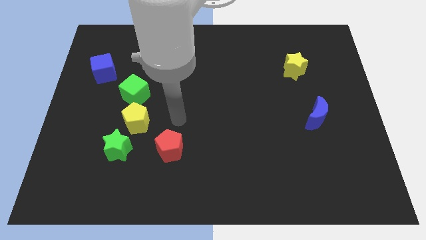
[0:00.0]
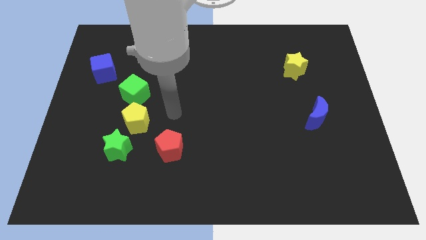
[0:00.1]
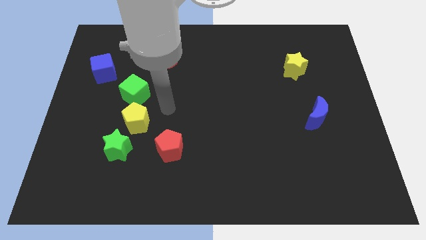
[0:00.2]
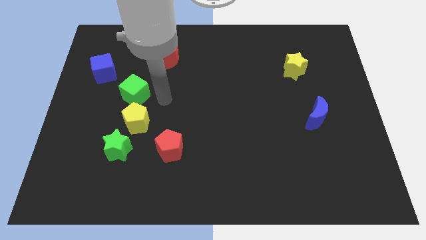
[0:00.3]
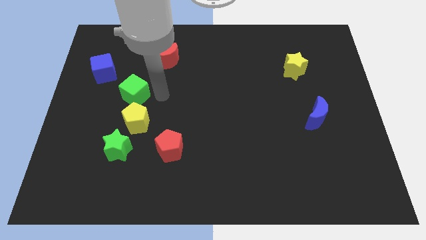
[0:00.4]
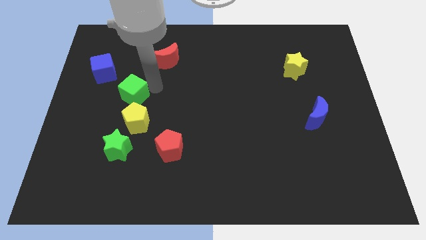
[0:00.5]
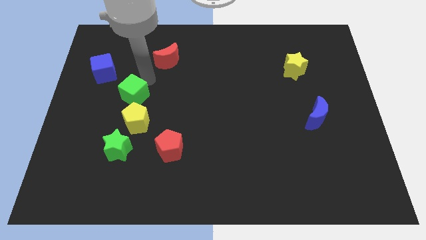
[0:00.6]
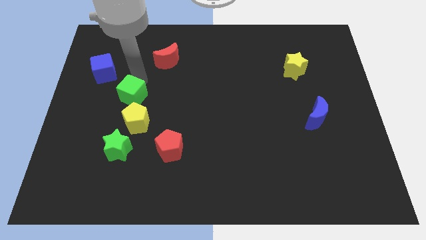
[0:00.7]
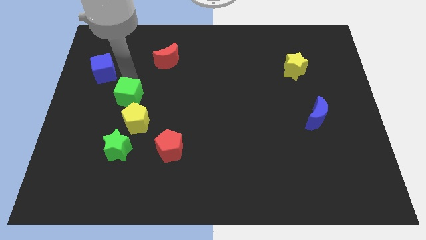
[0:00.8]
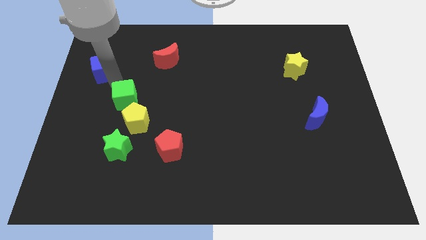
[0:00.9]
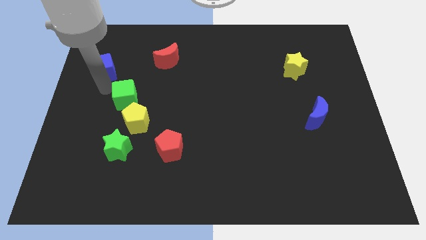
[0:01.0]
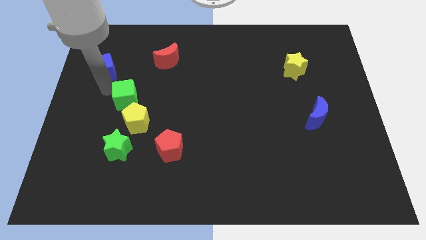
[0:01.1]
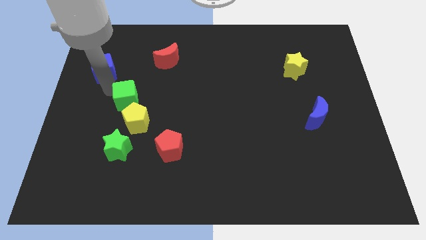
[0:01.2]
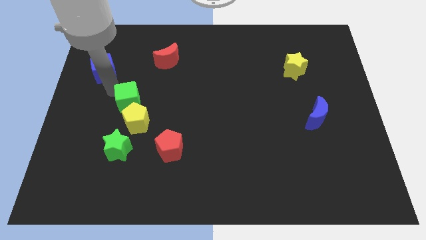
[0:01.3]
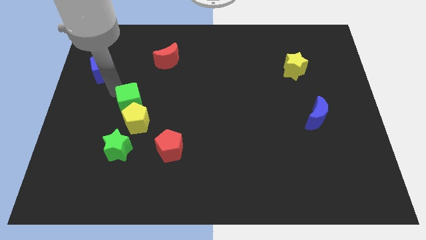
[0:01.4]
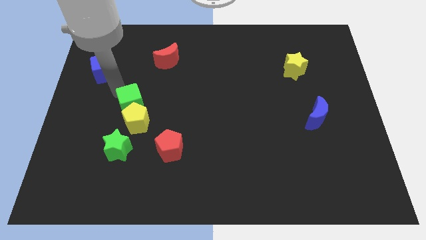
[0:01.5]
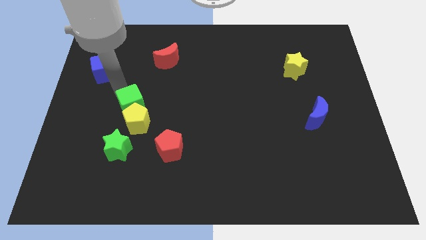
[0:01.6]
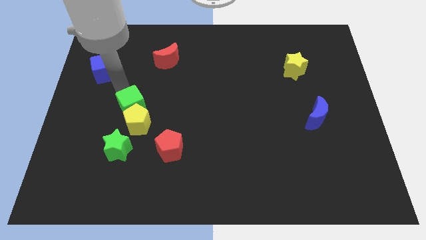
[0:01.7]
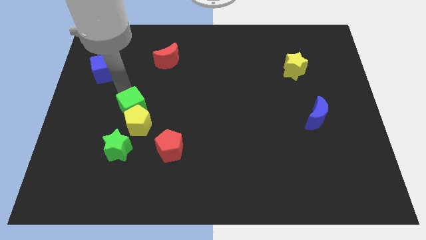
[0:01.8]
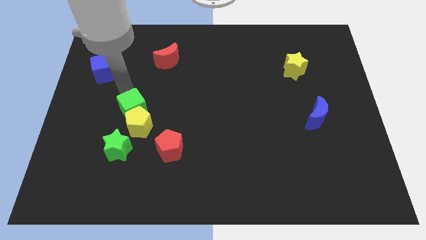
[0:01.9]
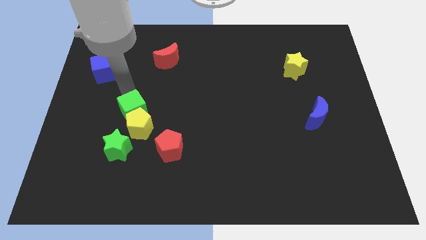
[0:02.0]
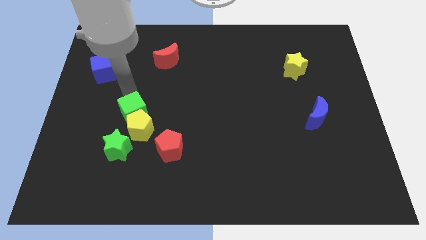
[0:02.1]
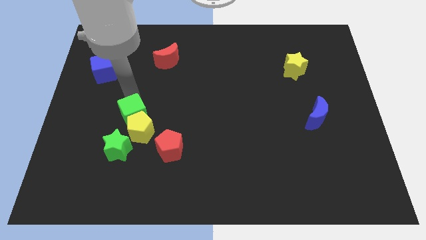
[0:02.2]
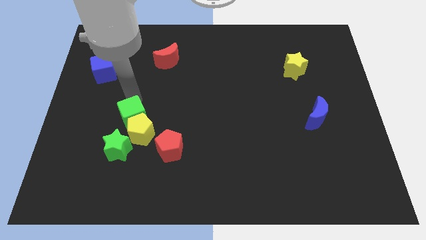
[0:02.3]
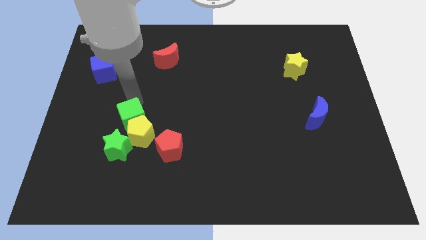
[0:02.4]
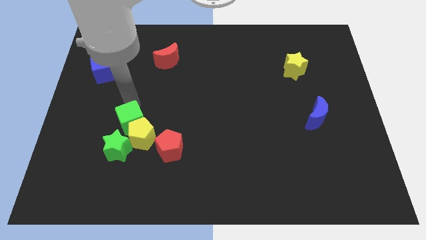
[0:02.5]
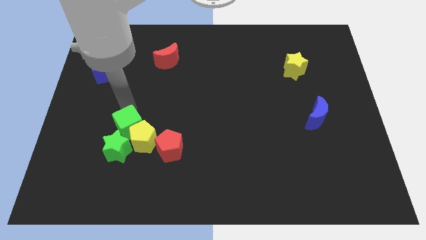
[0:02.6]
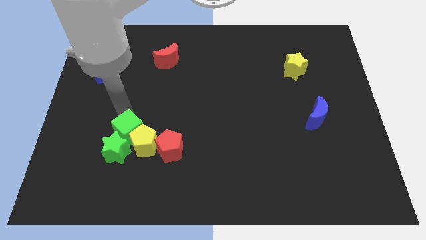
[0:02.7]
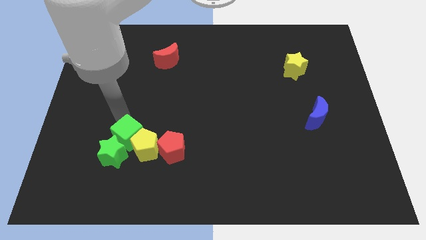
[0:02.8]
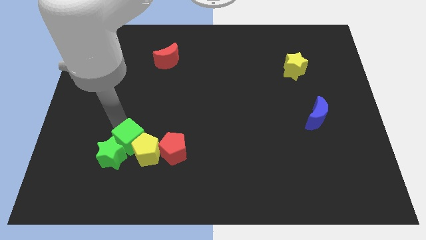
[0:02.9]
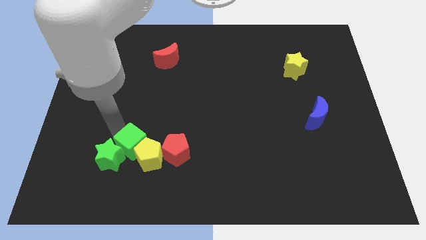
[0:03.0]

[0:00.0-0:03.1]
slide the green cube somewhat downwards and right diagonally

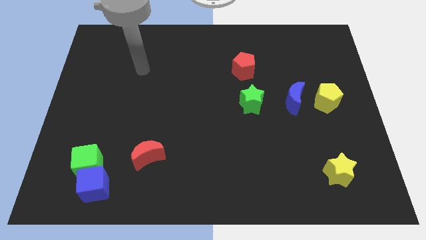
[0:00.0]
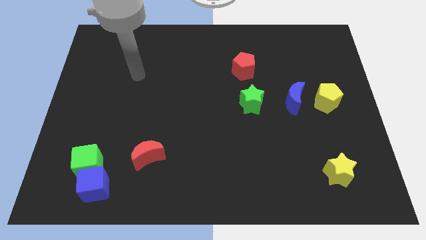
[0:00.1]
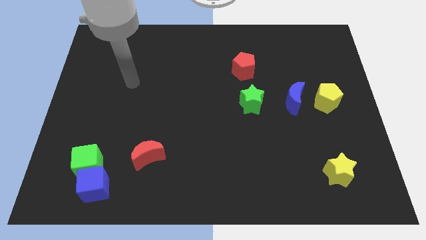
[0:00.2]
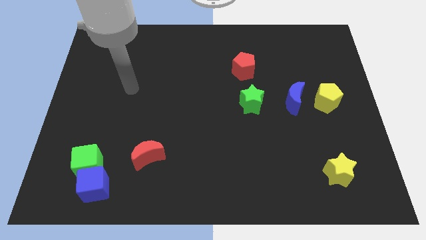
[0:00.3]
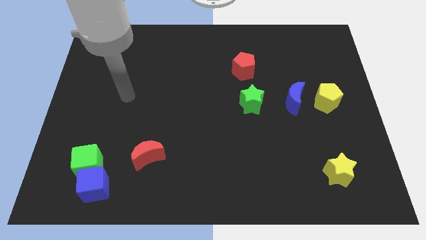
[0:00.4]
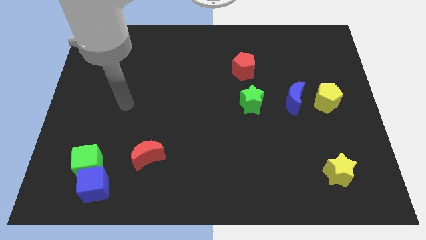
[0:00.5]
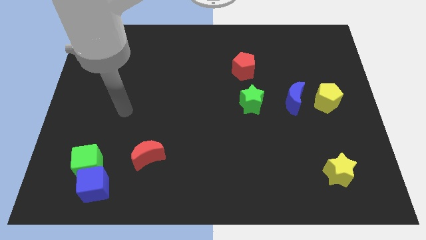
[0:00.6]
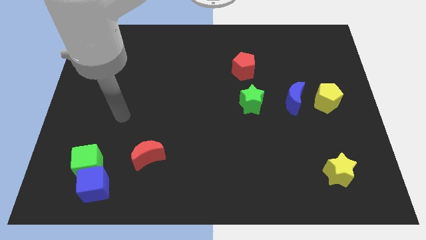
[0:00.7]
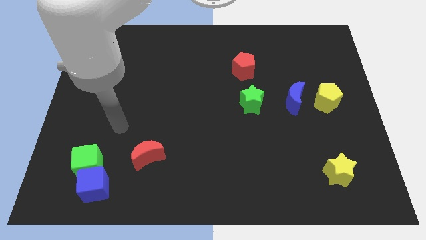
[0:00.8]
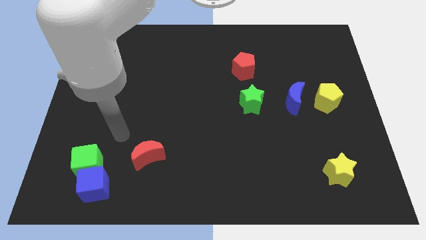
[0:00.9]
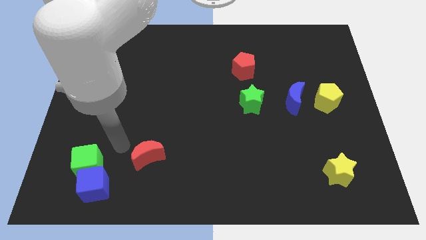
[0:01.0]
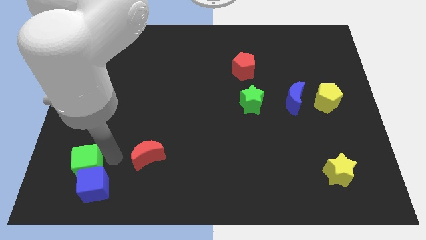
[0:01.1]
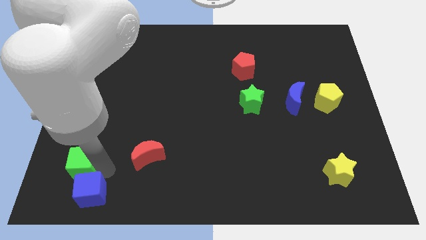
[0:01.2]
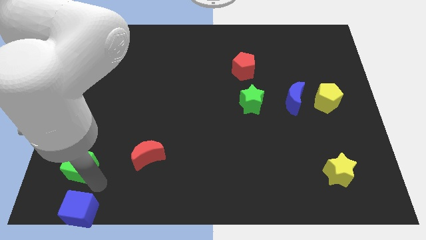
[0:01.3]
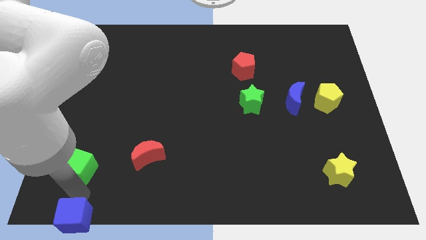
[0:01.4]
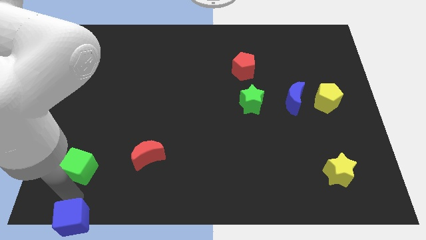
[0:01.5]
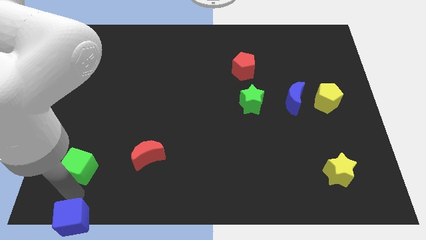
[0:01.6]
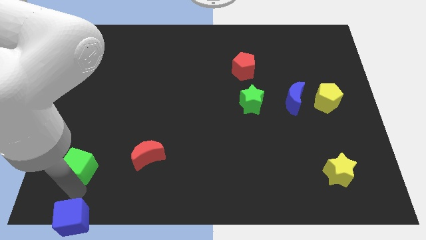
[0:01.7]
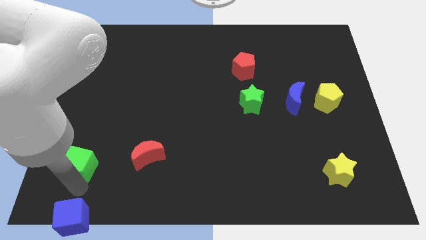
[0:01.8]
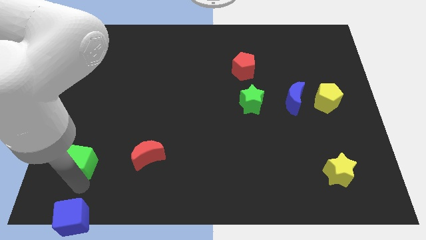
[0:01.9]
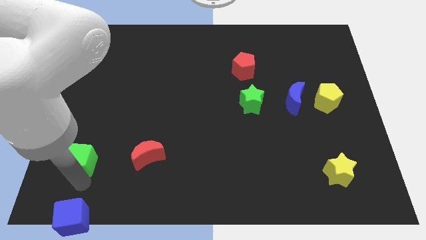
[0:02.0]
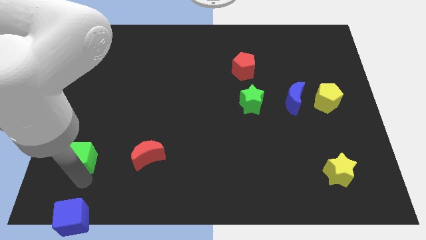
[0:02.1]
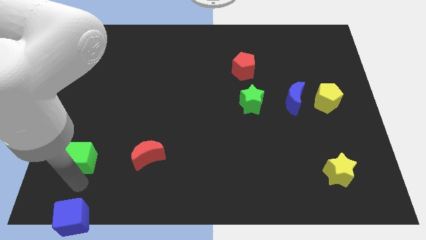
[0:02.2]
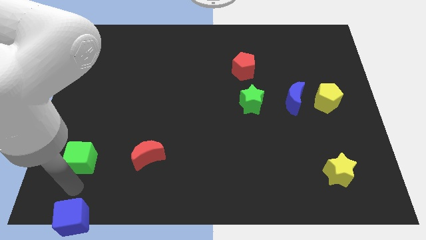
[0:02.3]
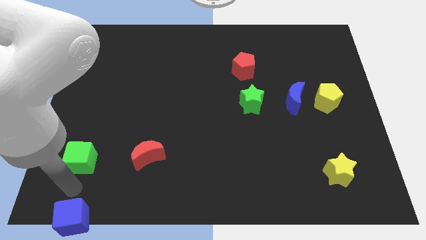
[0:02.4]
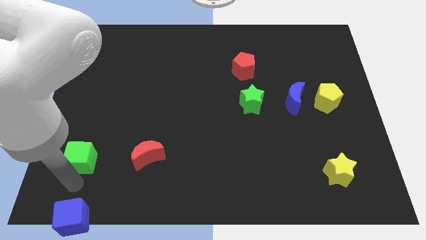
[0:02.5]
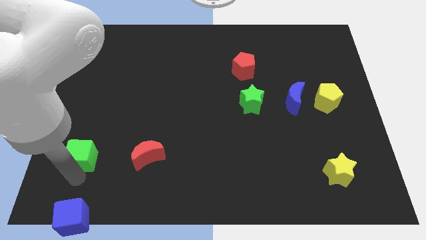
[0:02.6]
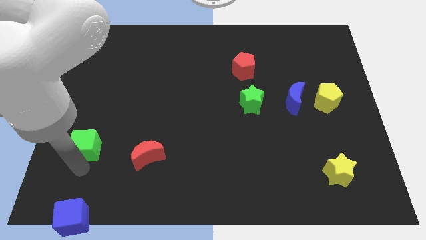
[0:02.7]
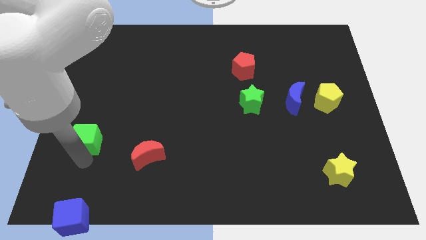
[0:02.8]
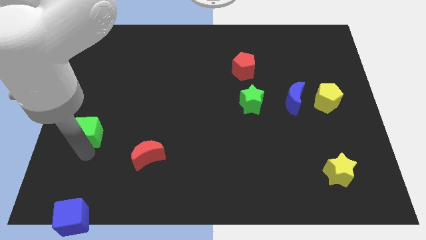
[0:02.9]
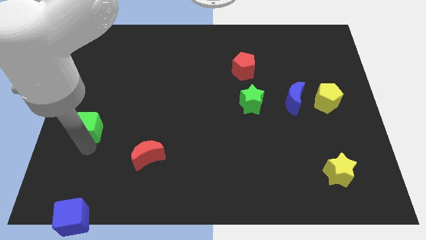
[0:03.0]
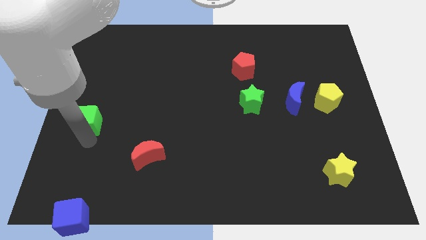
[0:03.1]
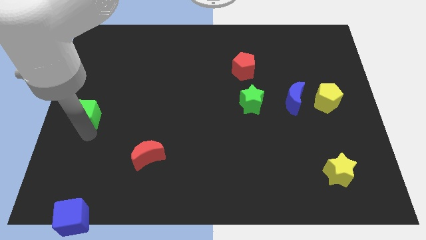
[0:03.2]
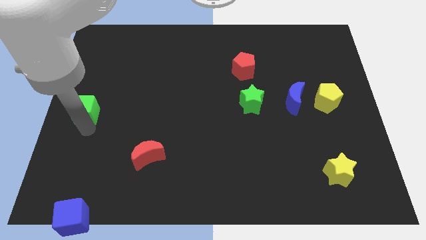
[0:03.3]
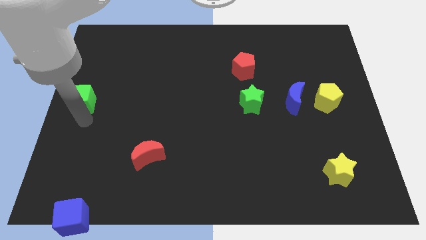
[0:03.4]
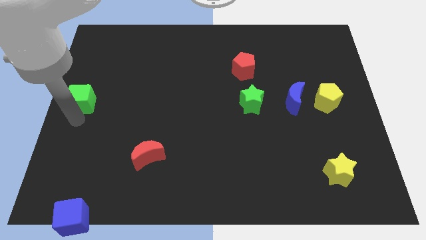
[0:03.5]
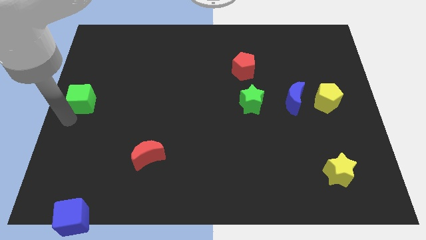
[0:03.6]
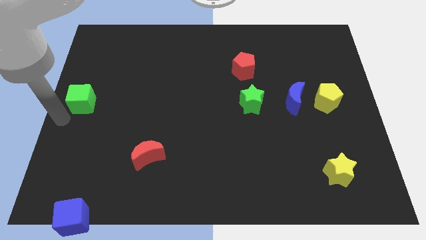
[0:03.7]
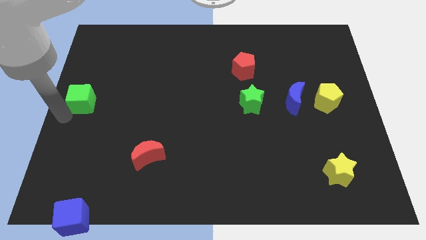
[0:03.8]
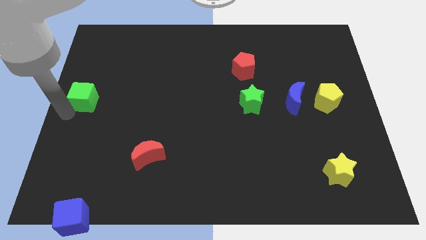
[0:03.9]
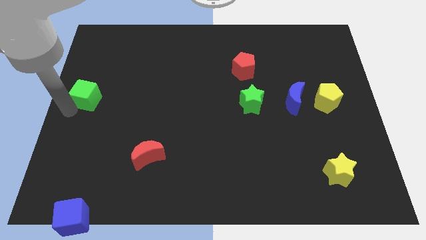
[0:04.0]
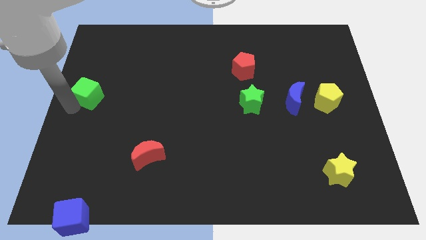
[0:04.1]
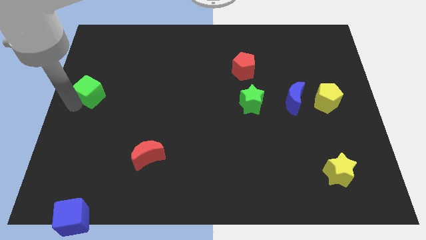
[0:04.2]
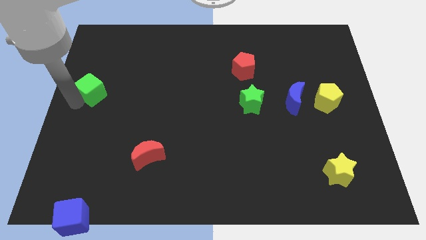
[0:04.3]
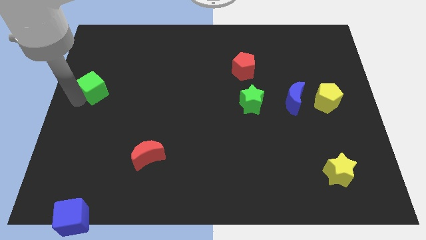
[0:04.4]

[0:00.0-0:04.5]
push the green cube upwards

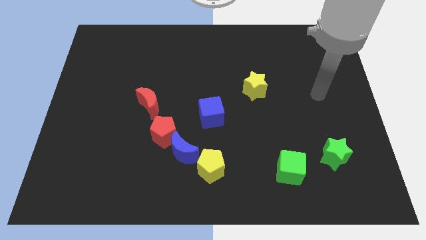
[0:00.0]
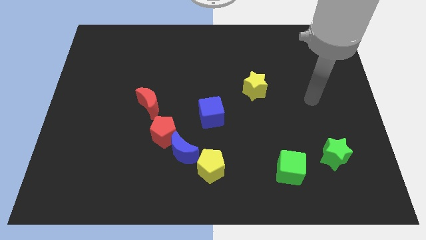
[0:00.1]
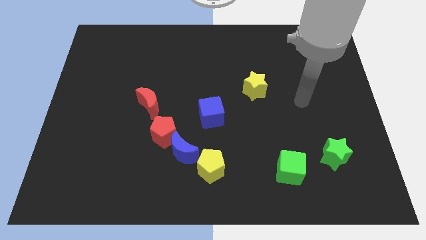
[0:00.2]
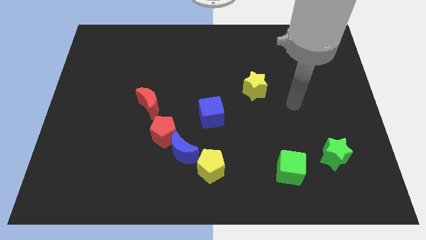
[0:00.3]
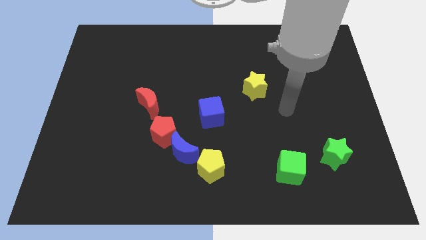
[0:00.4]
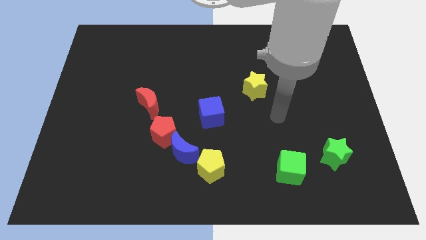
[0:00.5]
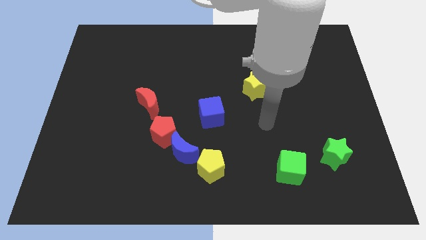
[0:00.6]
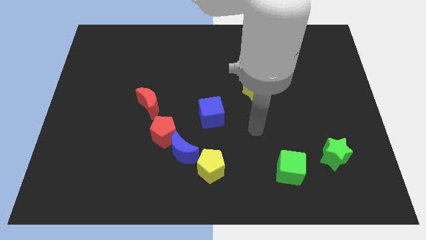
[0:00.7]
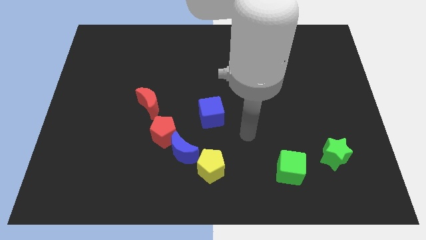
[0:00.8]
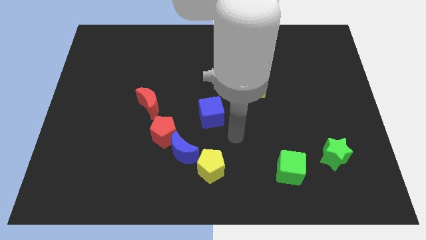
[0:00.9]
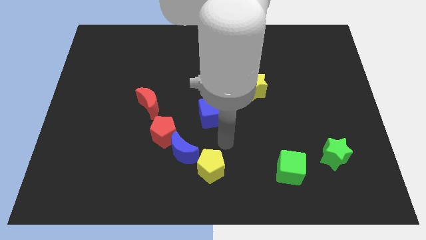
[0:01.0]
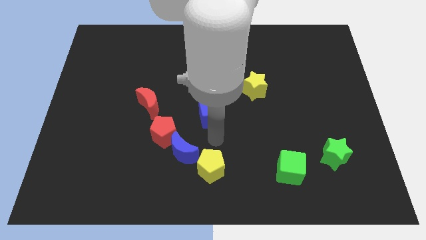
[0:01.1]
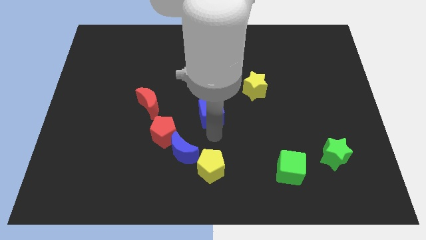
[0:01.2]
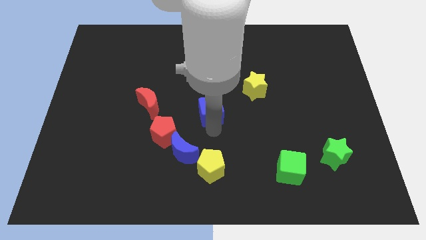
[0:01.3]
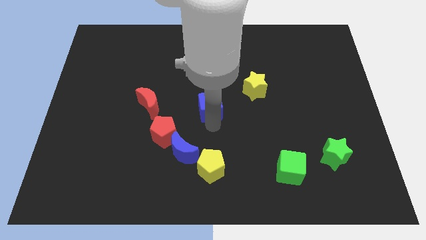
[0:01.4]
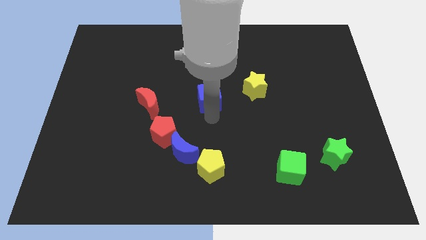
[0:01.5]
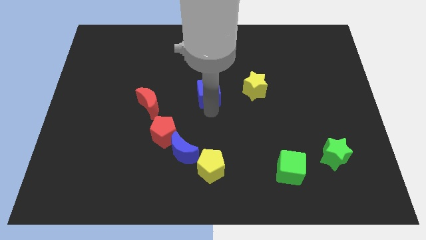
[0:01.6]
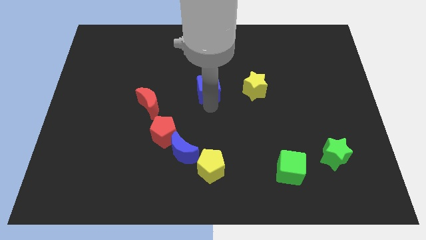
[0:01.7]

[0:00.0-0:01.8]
slightly move the blue cube upwards
